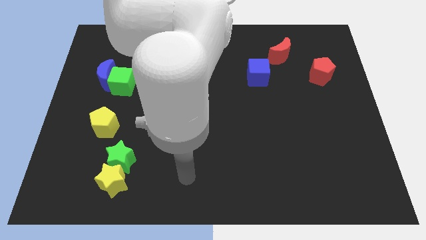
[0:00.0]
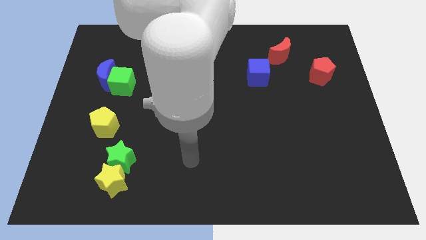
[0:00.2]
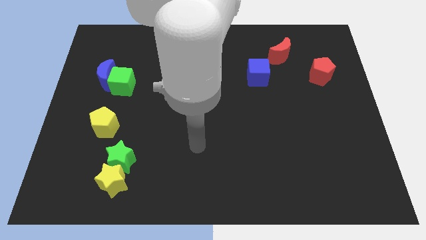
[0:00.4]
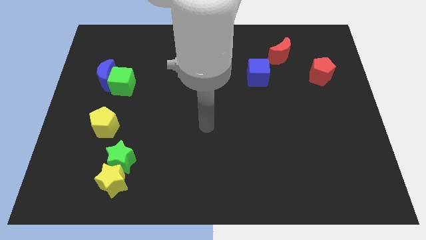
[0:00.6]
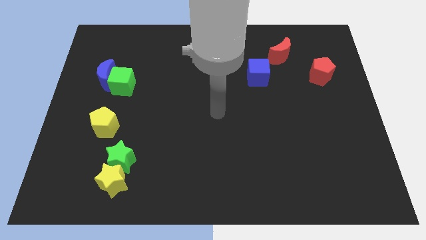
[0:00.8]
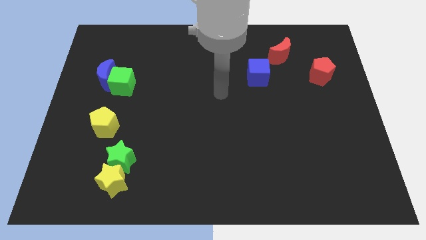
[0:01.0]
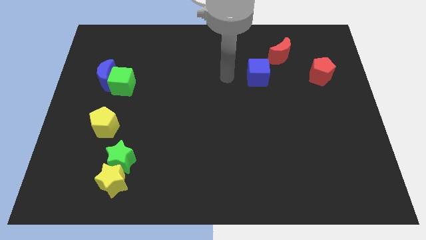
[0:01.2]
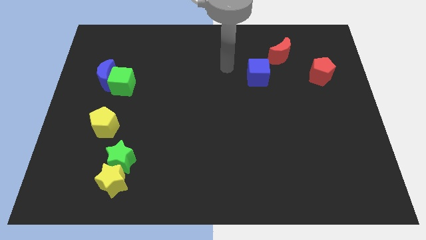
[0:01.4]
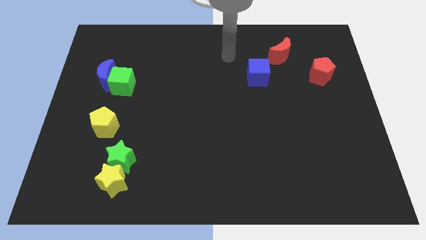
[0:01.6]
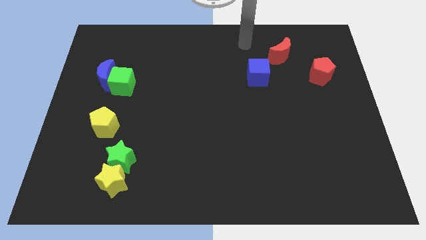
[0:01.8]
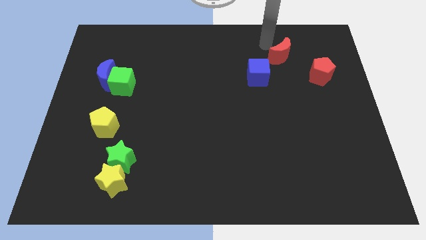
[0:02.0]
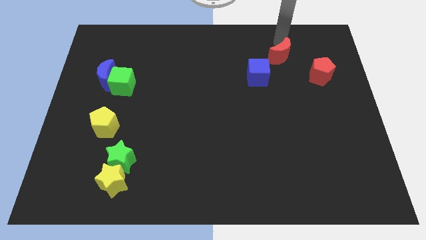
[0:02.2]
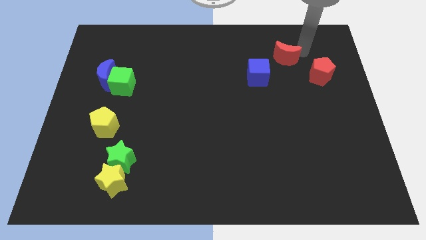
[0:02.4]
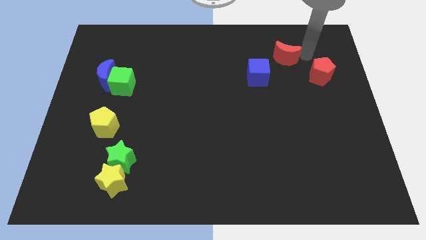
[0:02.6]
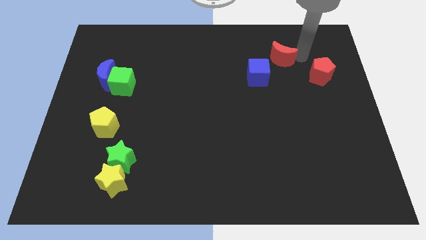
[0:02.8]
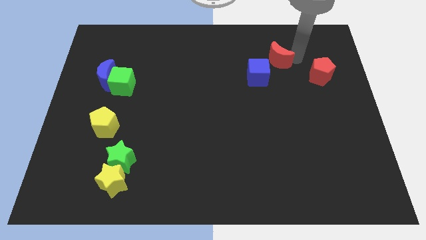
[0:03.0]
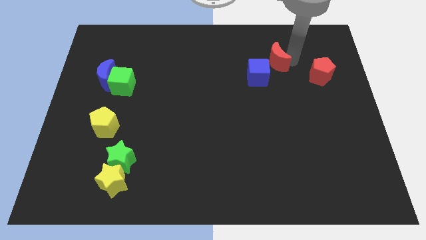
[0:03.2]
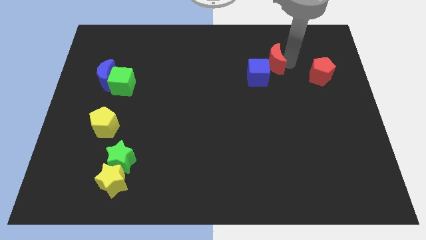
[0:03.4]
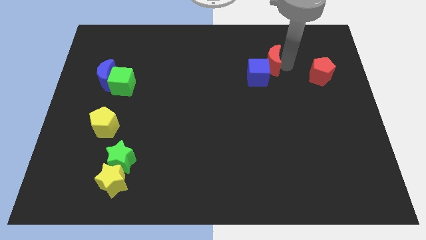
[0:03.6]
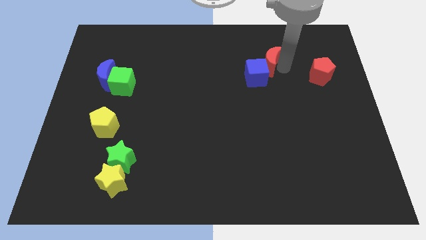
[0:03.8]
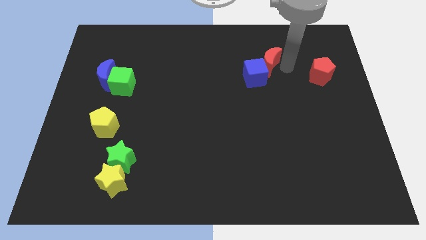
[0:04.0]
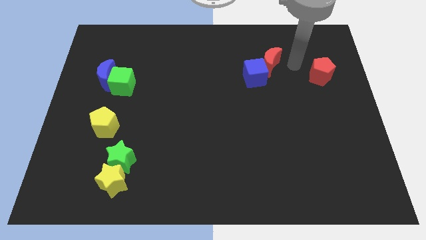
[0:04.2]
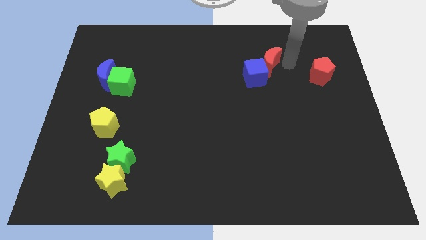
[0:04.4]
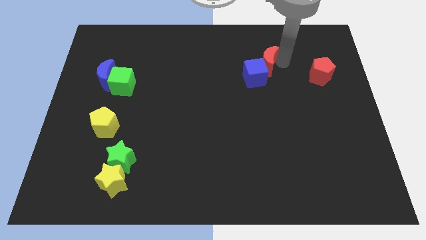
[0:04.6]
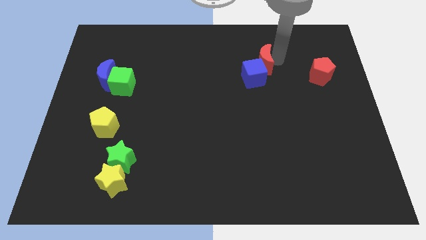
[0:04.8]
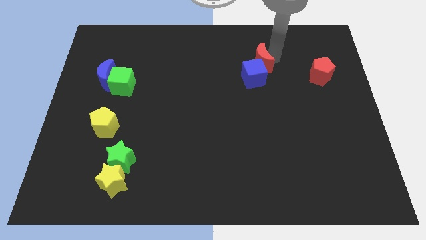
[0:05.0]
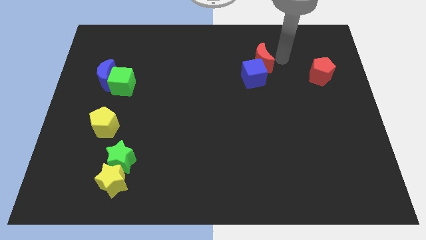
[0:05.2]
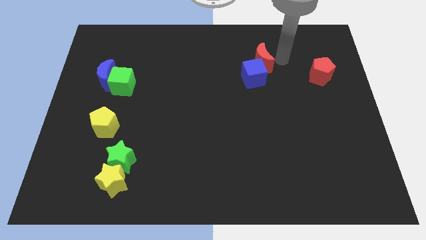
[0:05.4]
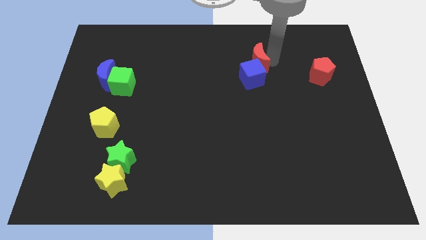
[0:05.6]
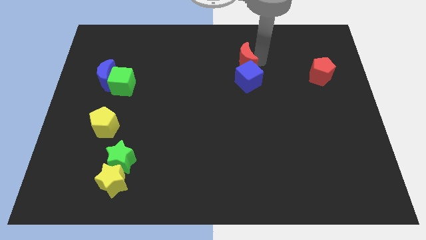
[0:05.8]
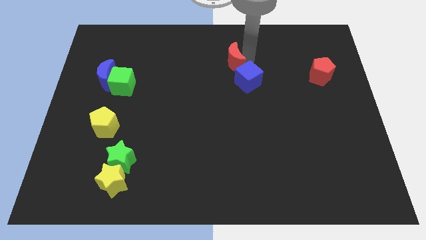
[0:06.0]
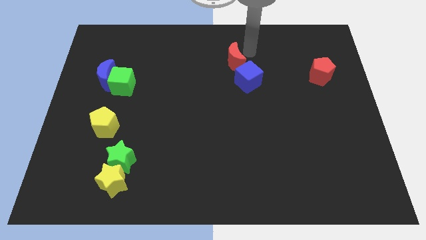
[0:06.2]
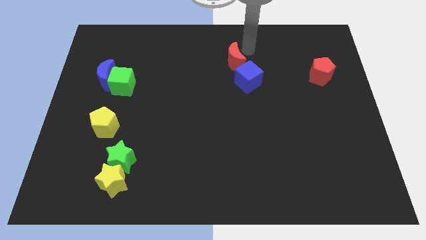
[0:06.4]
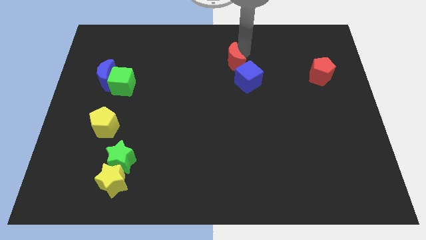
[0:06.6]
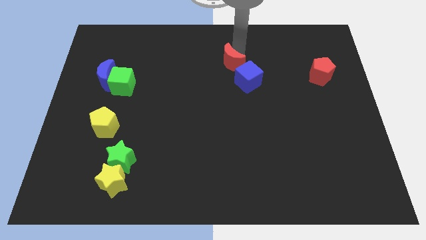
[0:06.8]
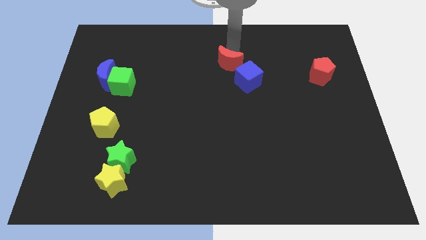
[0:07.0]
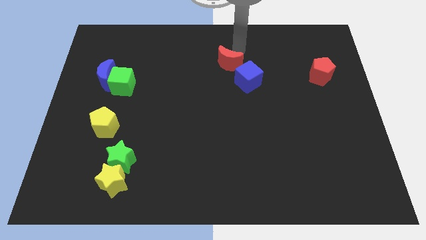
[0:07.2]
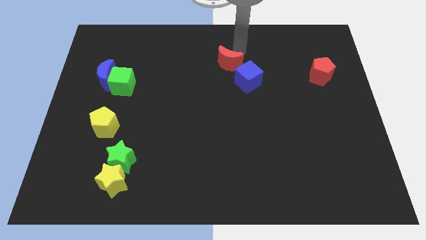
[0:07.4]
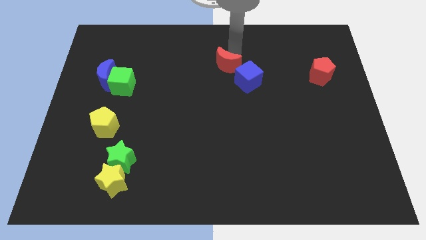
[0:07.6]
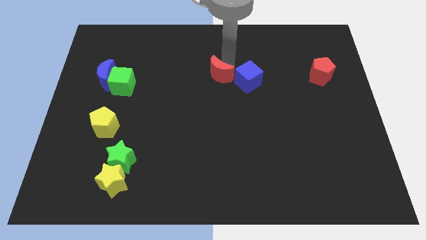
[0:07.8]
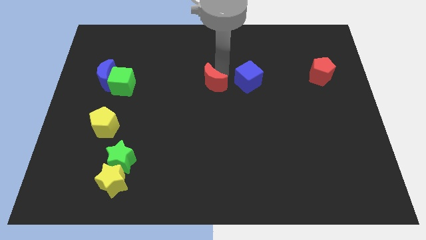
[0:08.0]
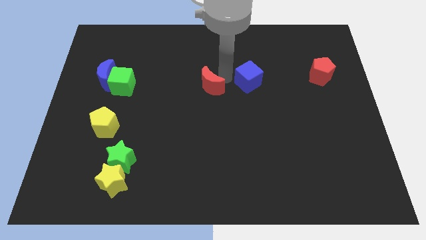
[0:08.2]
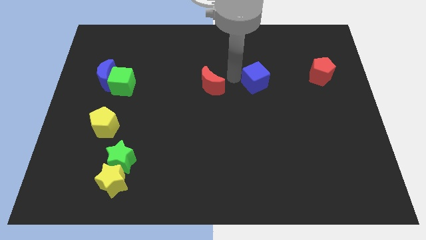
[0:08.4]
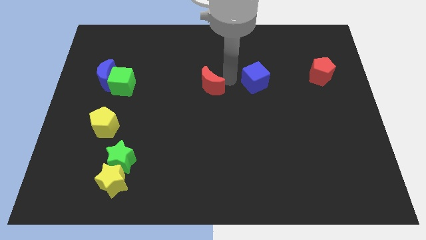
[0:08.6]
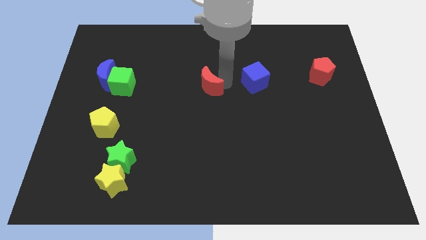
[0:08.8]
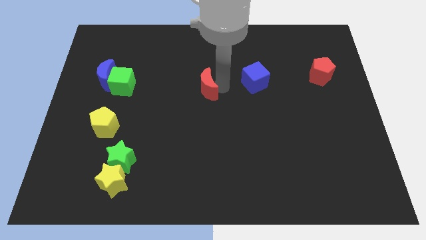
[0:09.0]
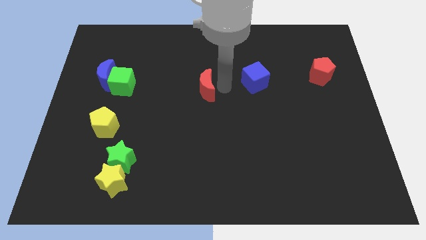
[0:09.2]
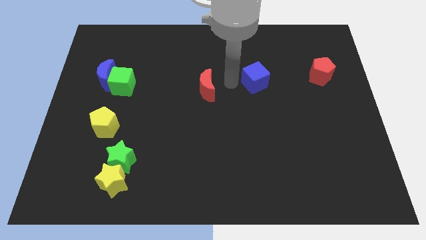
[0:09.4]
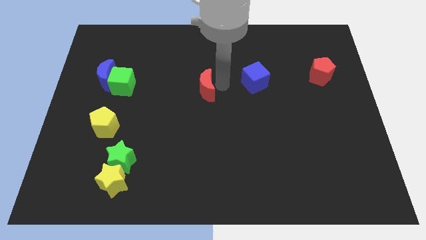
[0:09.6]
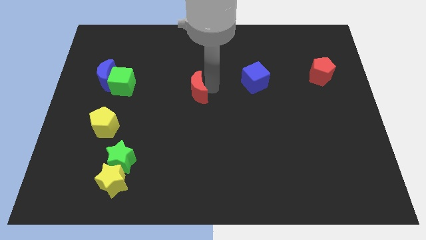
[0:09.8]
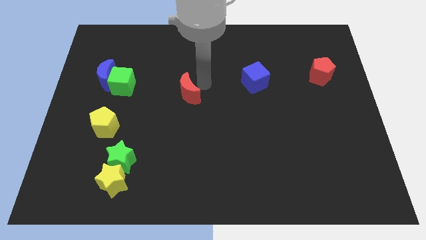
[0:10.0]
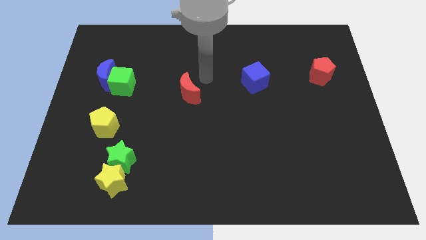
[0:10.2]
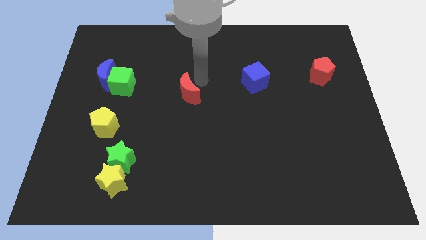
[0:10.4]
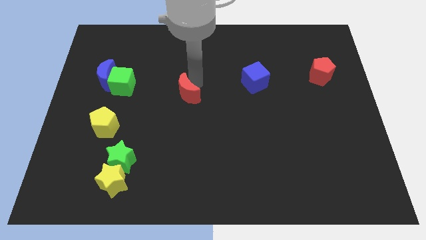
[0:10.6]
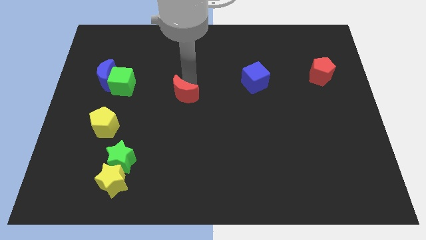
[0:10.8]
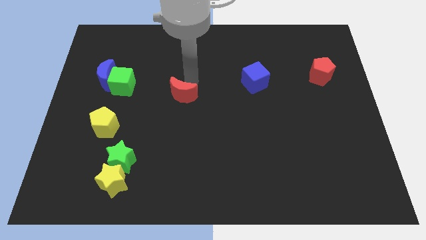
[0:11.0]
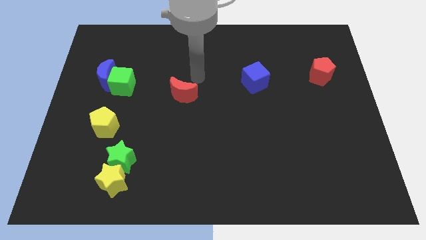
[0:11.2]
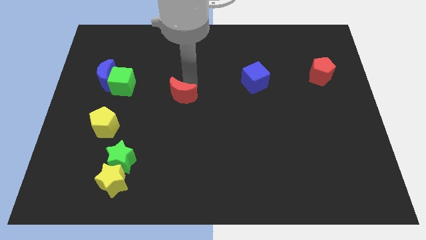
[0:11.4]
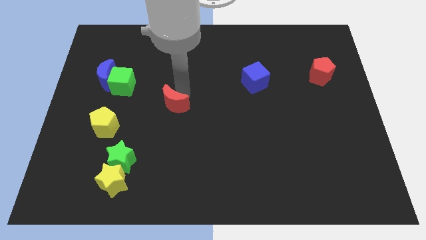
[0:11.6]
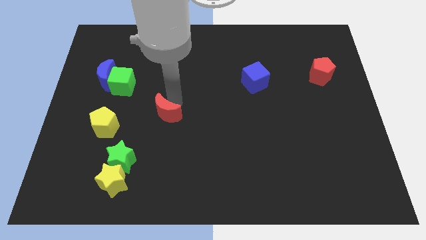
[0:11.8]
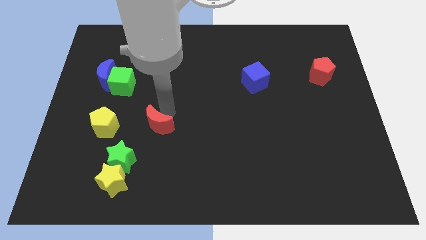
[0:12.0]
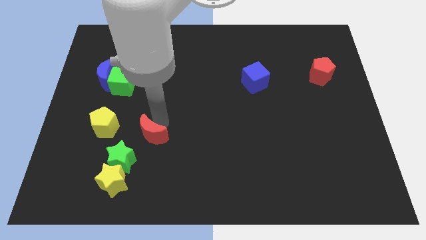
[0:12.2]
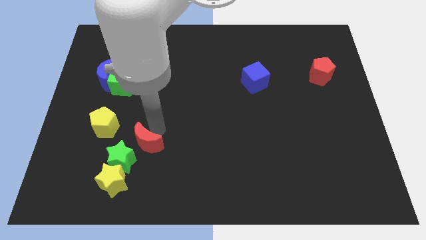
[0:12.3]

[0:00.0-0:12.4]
move the red moon to the green star

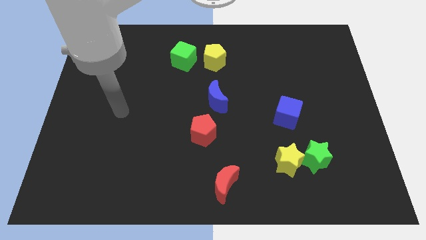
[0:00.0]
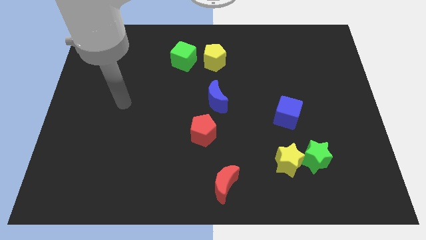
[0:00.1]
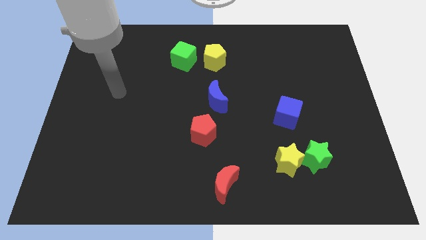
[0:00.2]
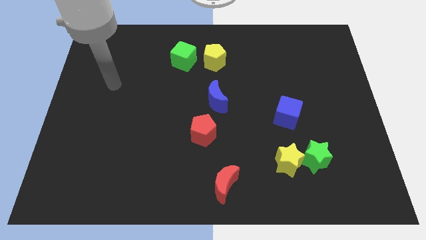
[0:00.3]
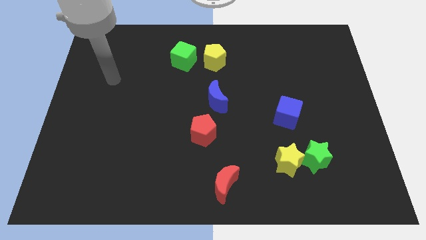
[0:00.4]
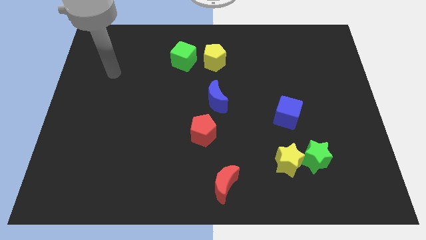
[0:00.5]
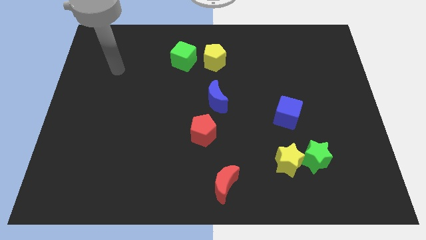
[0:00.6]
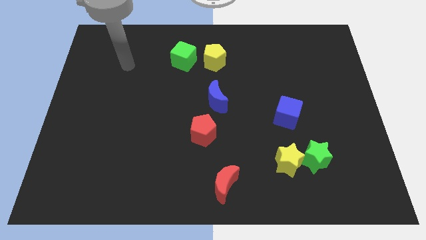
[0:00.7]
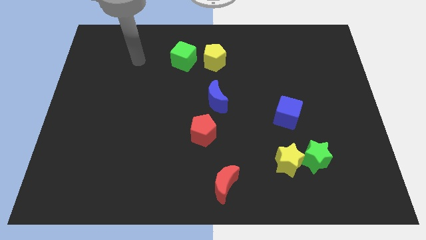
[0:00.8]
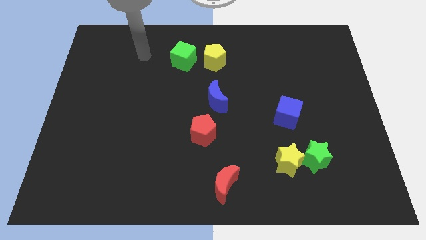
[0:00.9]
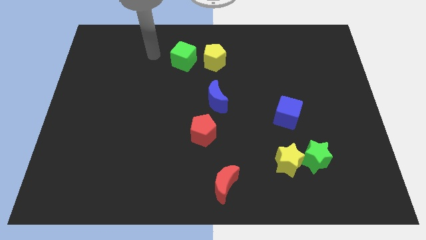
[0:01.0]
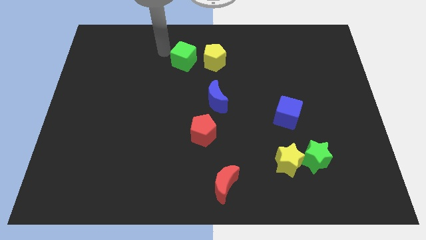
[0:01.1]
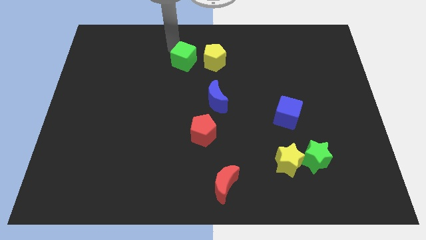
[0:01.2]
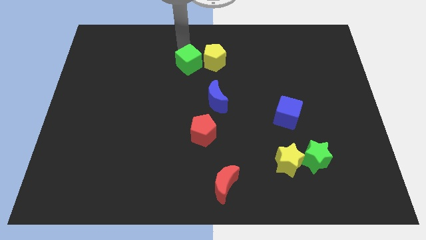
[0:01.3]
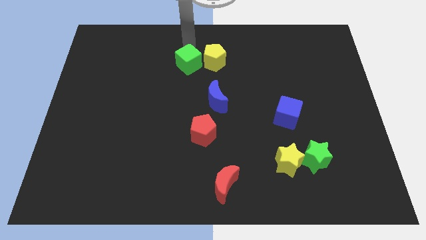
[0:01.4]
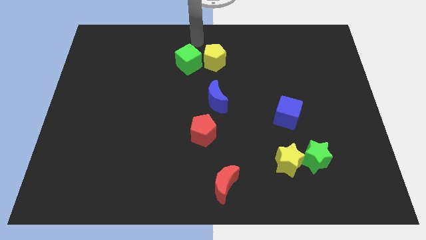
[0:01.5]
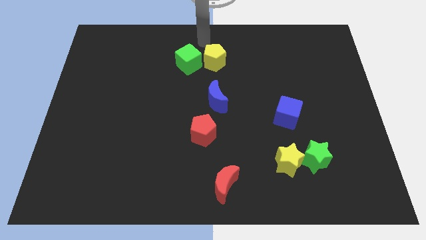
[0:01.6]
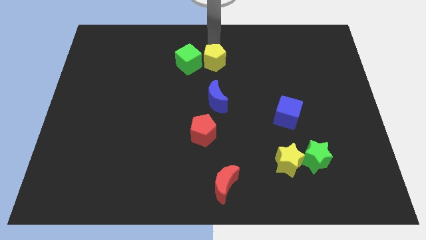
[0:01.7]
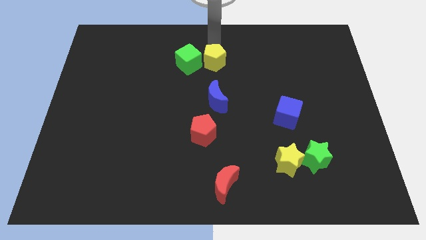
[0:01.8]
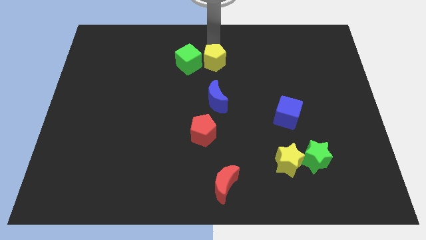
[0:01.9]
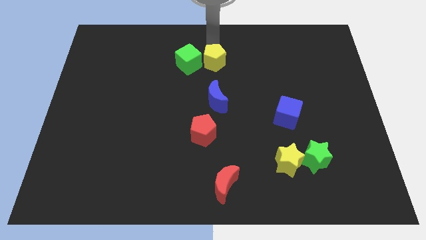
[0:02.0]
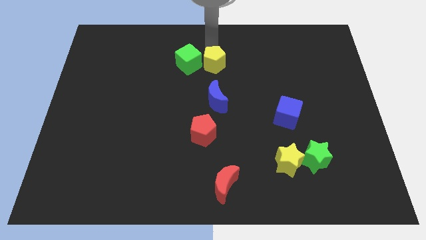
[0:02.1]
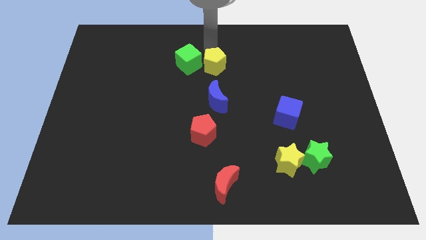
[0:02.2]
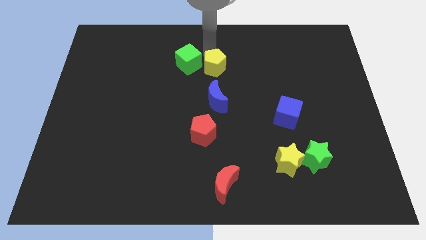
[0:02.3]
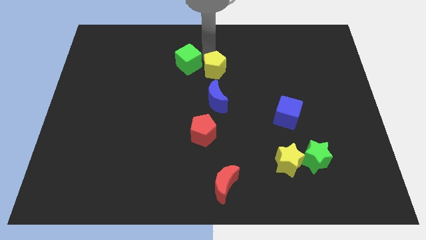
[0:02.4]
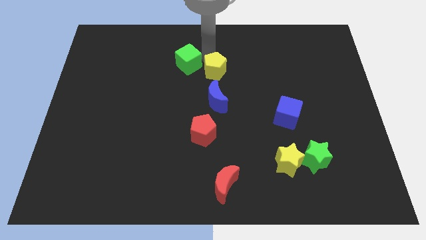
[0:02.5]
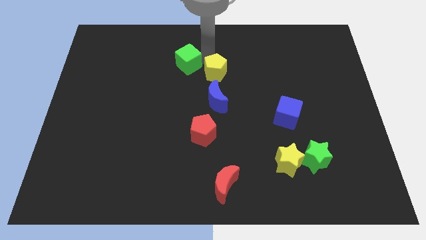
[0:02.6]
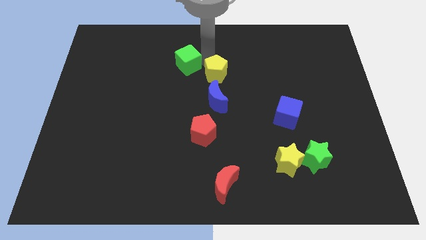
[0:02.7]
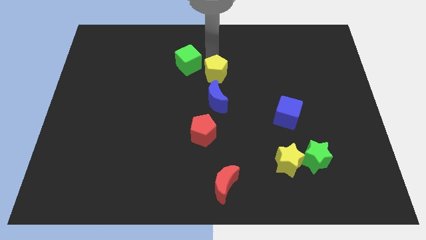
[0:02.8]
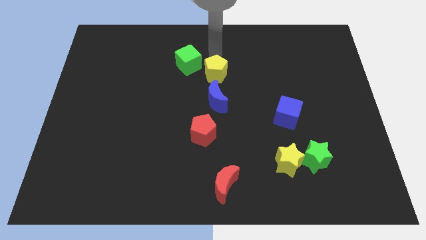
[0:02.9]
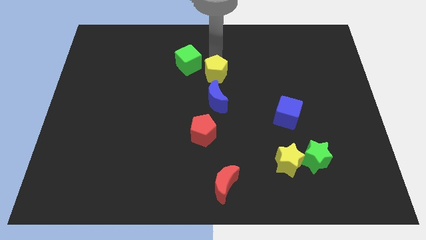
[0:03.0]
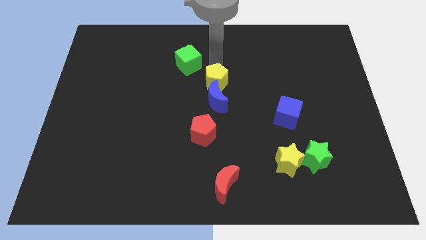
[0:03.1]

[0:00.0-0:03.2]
put the yellow pentagon to the blue moon
